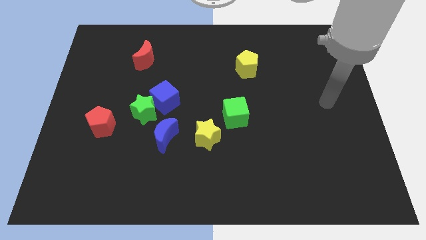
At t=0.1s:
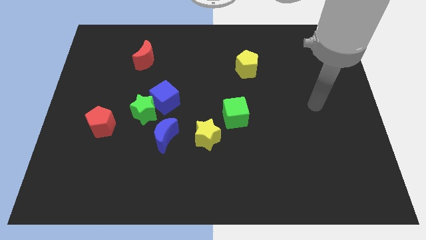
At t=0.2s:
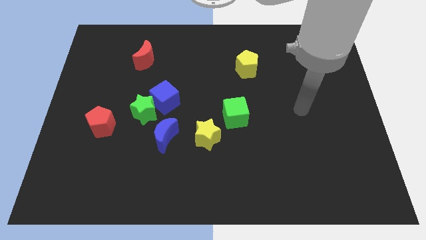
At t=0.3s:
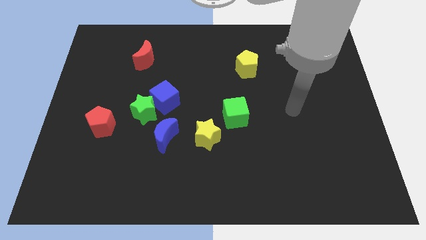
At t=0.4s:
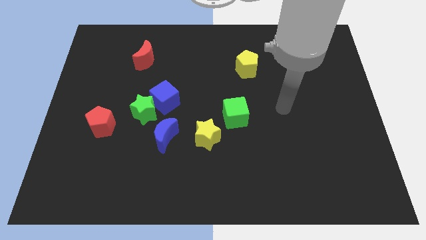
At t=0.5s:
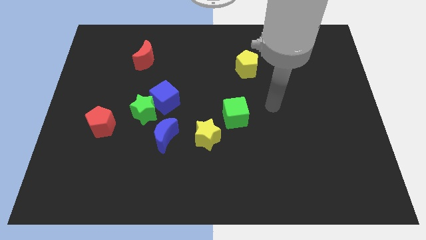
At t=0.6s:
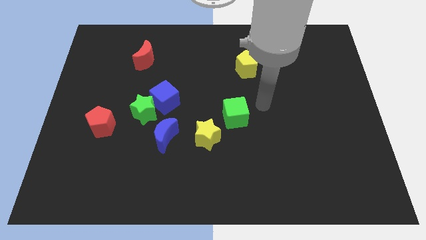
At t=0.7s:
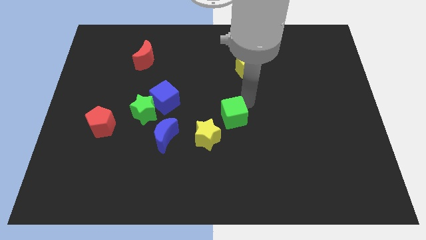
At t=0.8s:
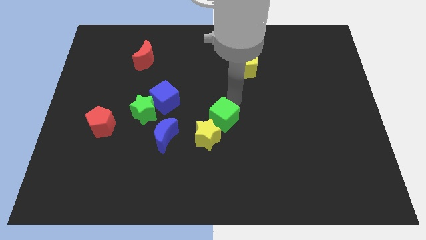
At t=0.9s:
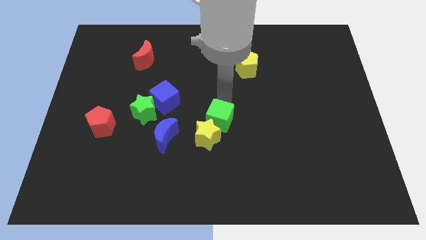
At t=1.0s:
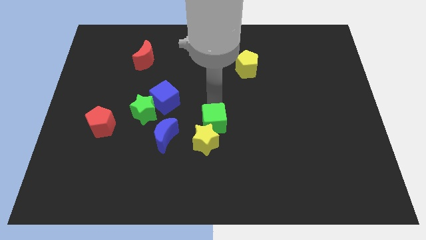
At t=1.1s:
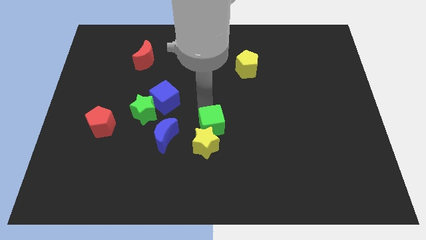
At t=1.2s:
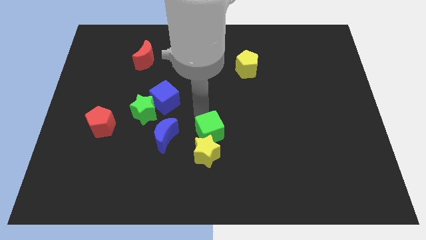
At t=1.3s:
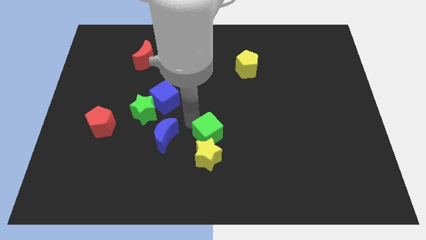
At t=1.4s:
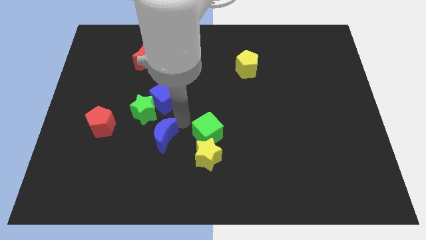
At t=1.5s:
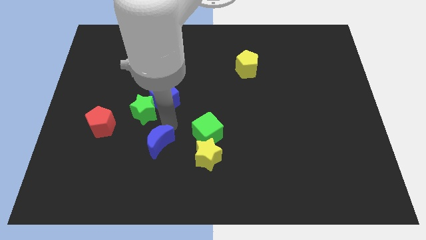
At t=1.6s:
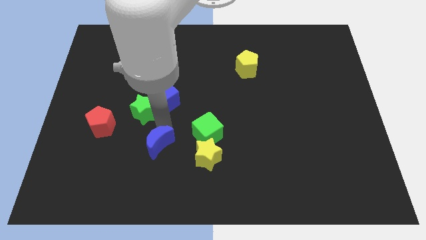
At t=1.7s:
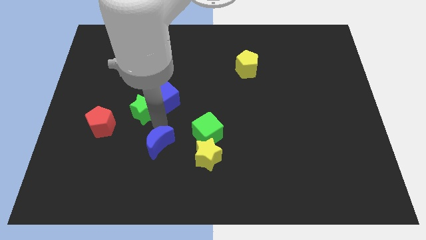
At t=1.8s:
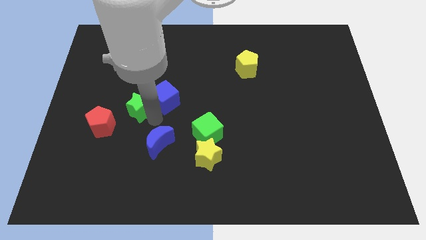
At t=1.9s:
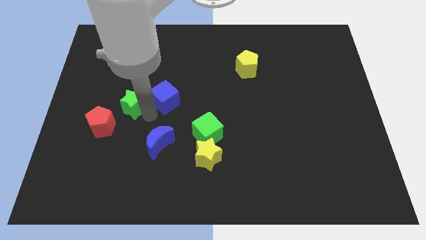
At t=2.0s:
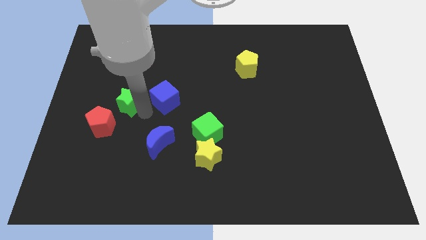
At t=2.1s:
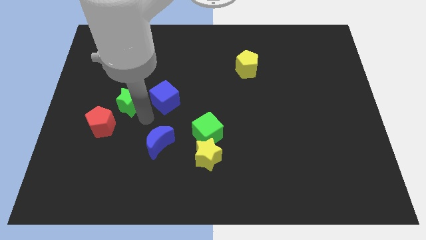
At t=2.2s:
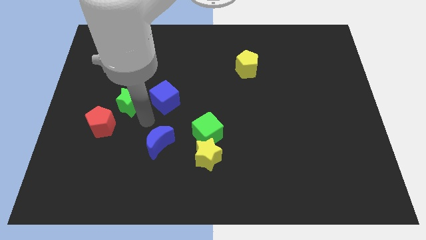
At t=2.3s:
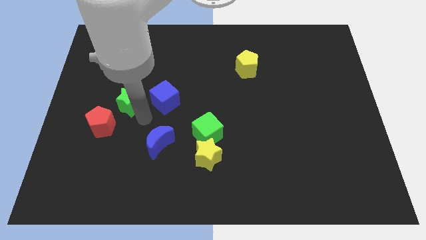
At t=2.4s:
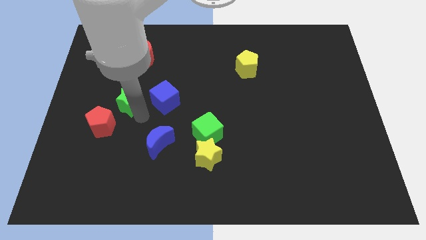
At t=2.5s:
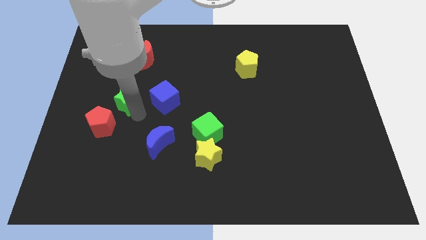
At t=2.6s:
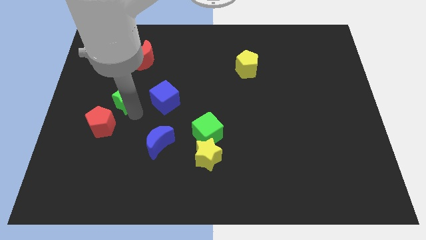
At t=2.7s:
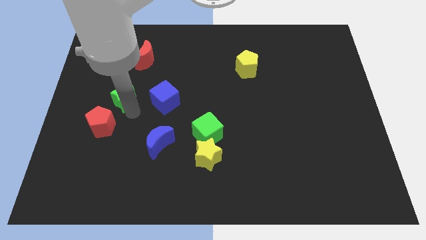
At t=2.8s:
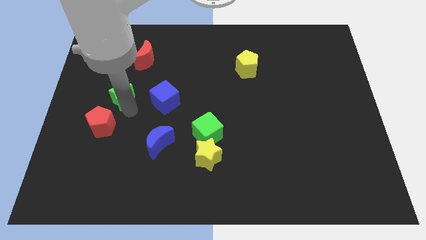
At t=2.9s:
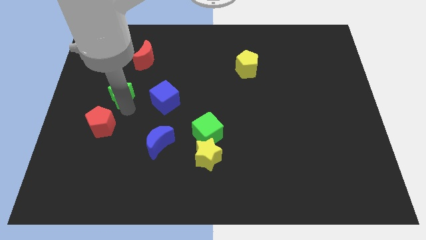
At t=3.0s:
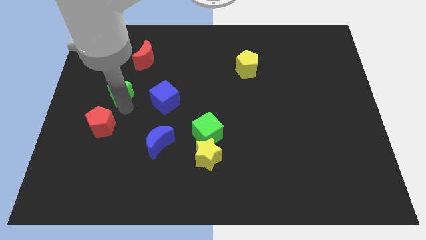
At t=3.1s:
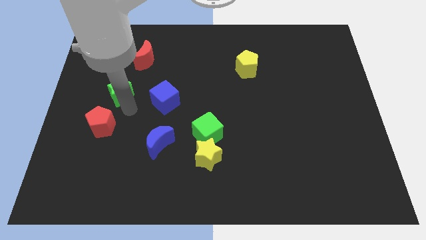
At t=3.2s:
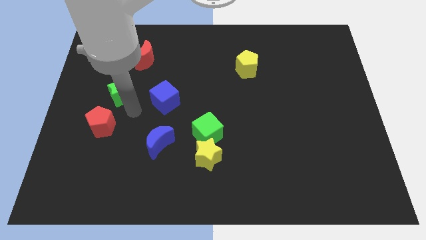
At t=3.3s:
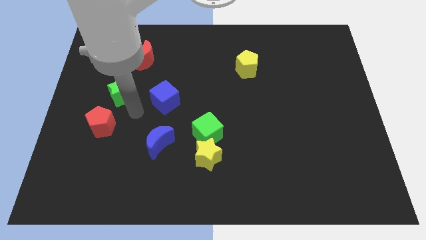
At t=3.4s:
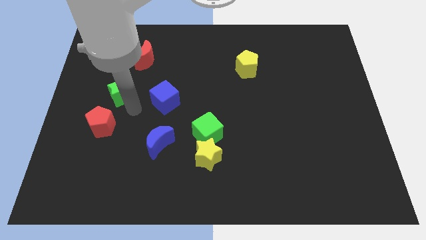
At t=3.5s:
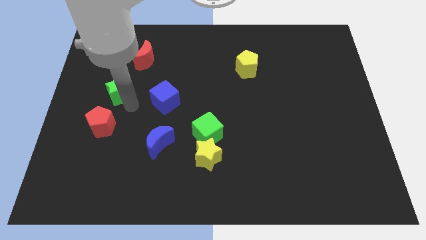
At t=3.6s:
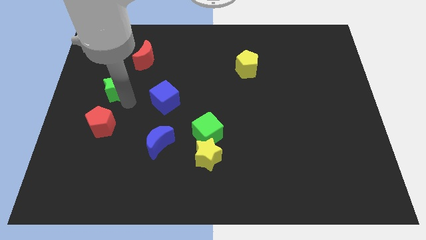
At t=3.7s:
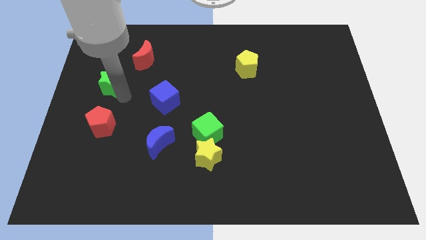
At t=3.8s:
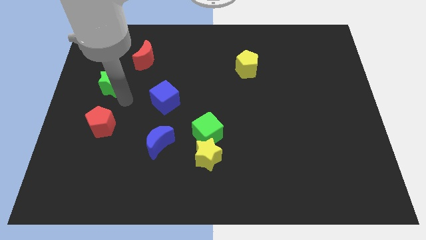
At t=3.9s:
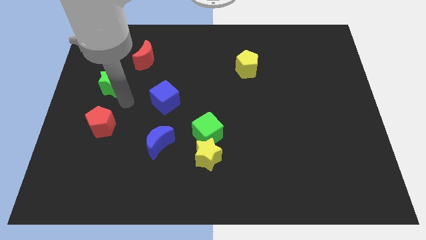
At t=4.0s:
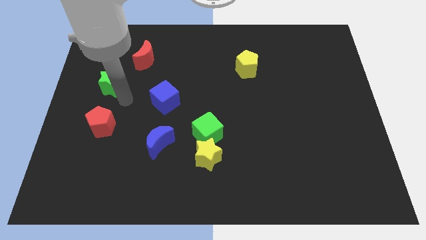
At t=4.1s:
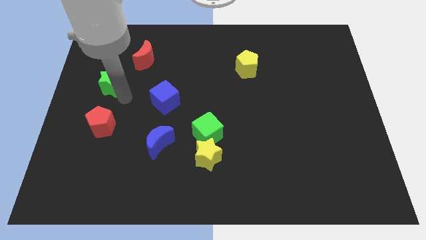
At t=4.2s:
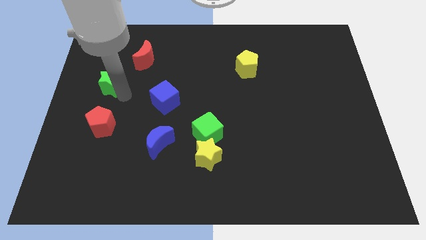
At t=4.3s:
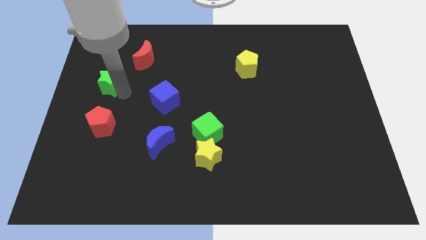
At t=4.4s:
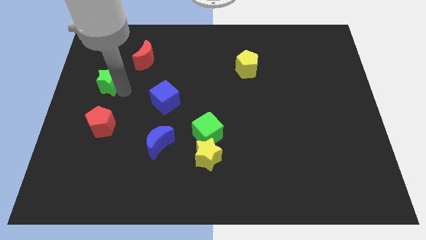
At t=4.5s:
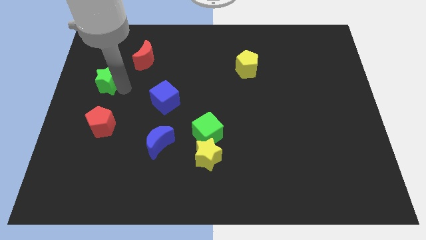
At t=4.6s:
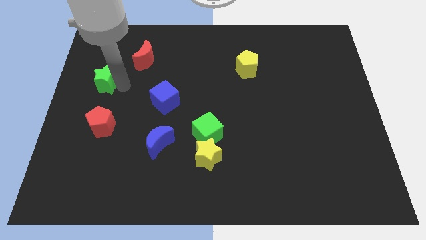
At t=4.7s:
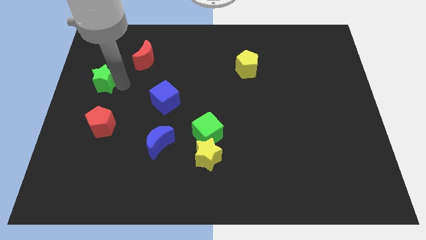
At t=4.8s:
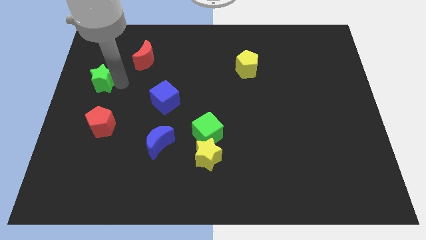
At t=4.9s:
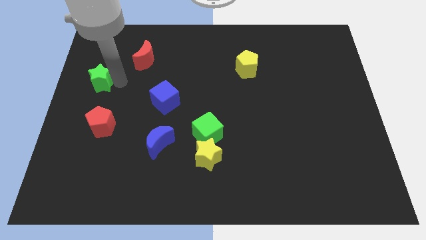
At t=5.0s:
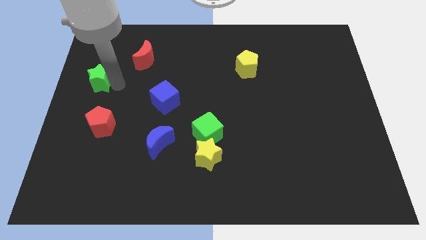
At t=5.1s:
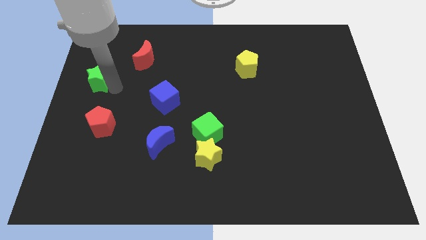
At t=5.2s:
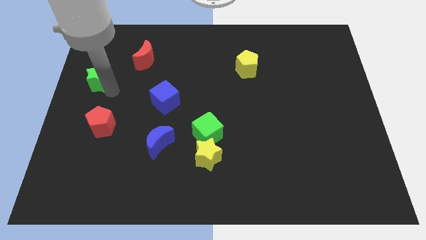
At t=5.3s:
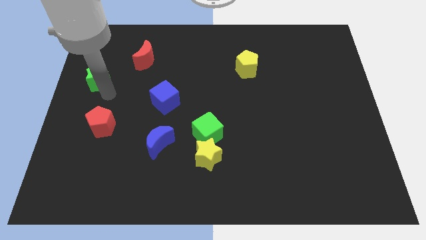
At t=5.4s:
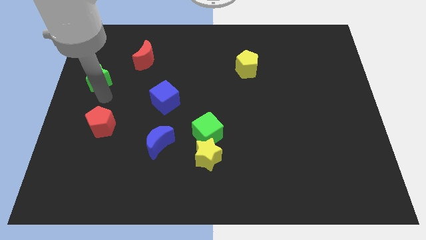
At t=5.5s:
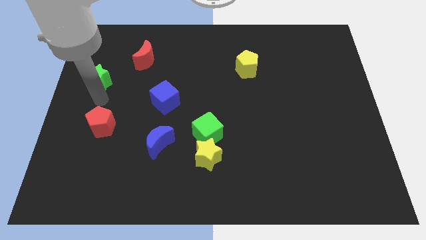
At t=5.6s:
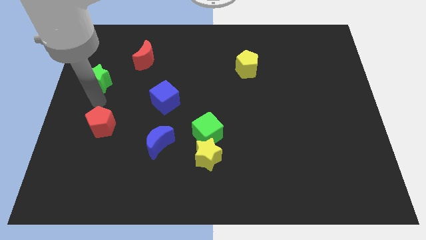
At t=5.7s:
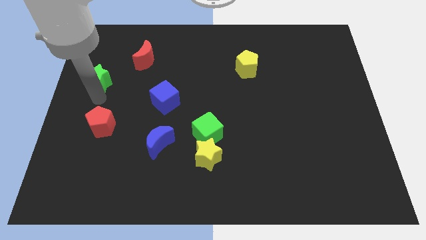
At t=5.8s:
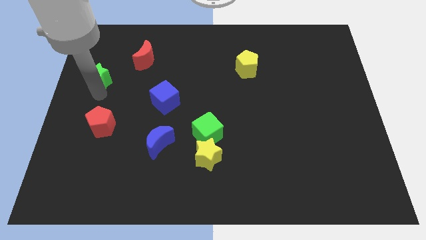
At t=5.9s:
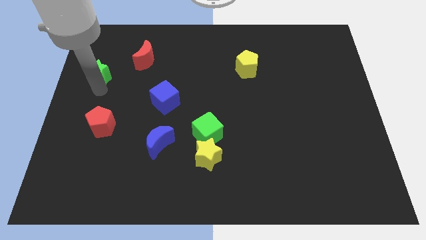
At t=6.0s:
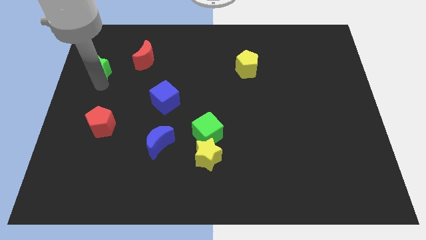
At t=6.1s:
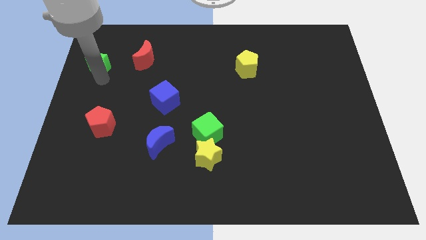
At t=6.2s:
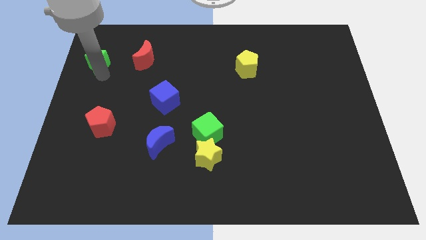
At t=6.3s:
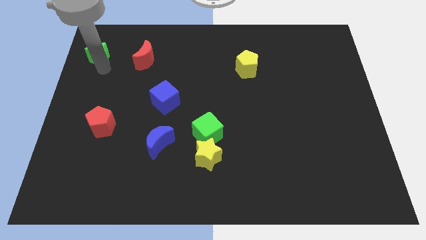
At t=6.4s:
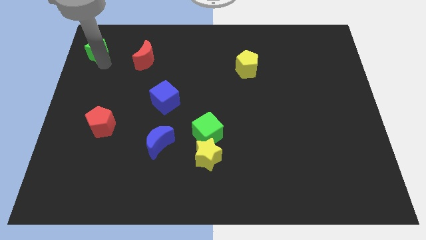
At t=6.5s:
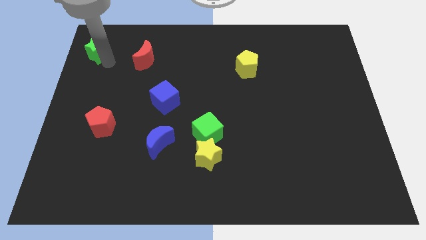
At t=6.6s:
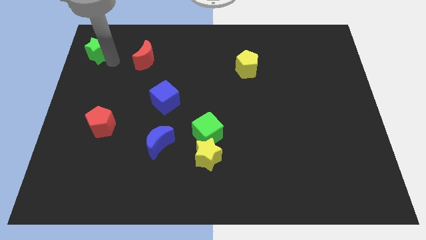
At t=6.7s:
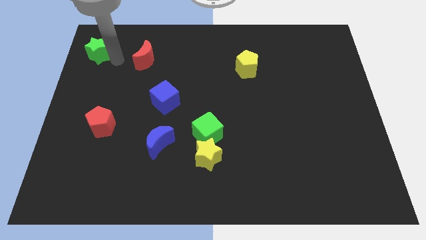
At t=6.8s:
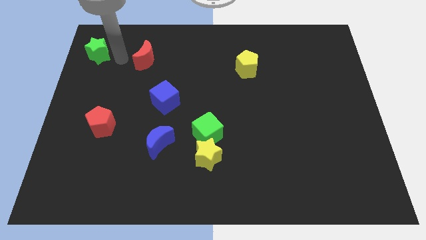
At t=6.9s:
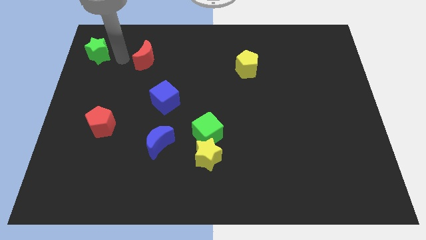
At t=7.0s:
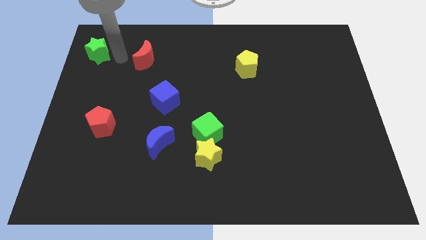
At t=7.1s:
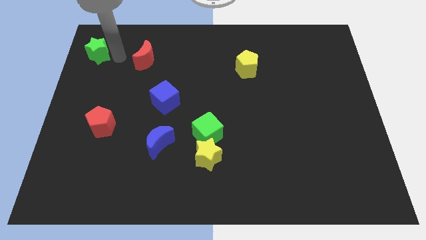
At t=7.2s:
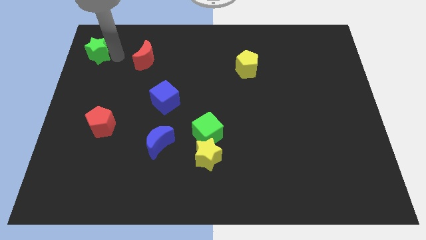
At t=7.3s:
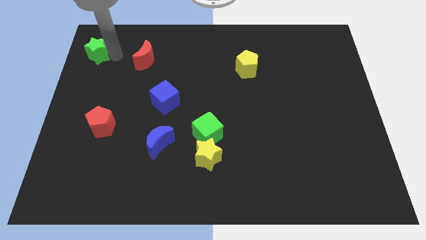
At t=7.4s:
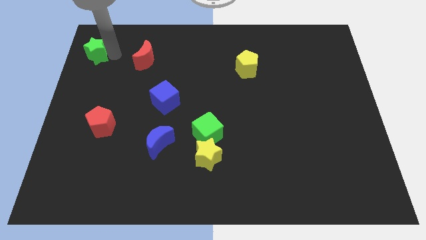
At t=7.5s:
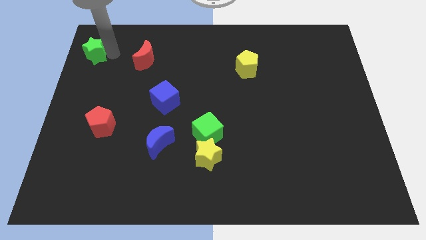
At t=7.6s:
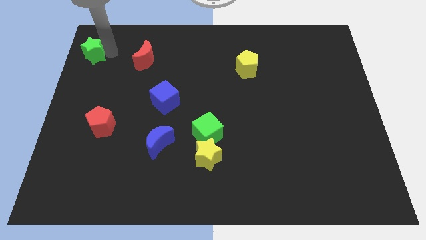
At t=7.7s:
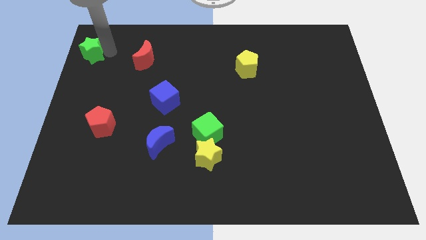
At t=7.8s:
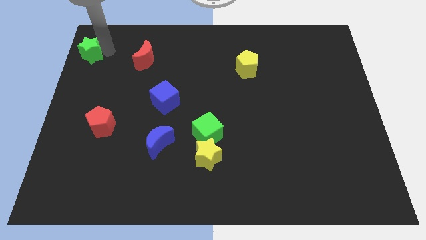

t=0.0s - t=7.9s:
push the green star to the upper left corner
